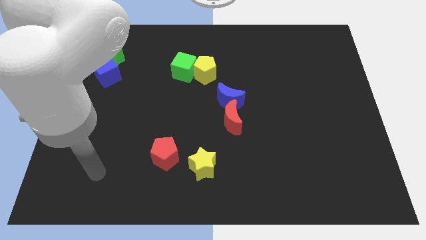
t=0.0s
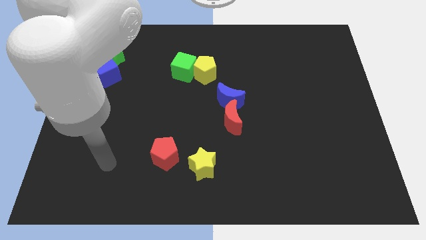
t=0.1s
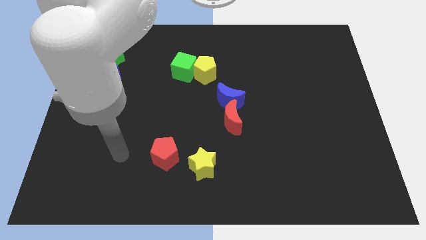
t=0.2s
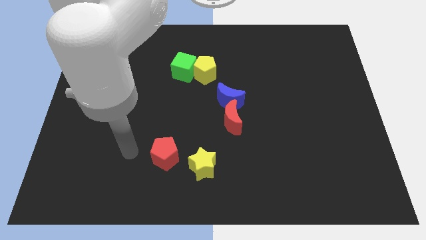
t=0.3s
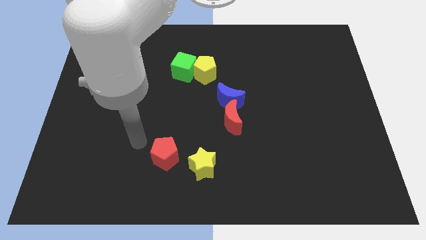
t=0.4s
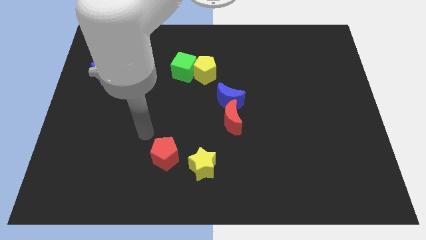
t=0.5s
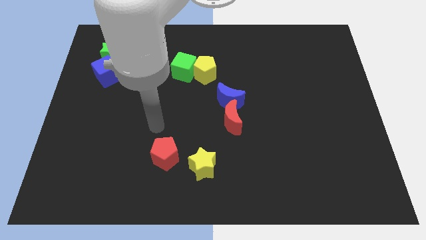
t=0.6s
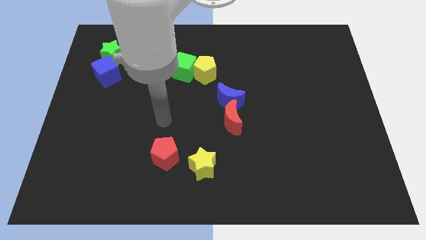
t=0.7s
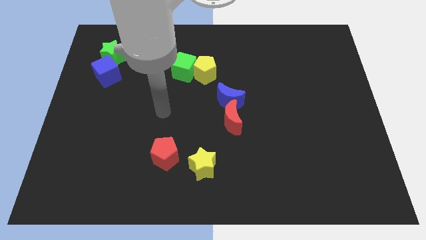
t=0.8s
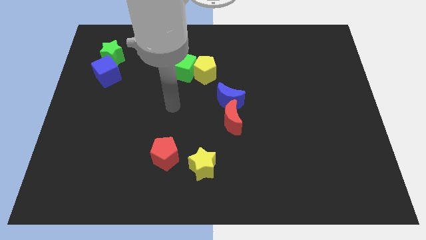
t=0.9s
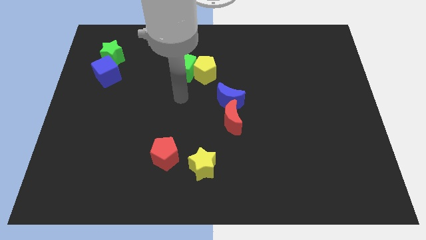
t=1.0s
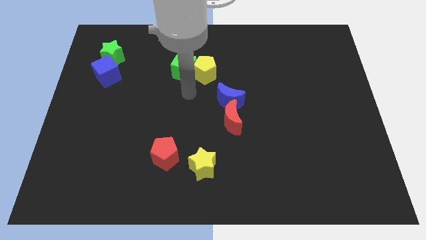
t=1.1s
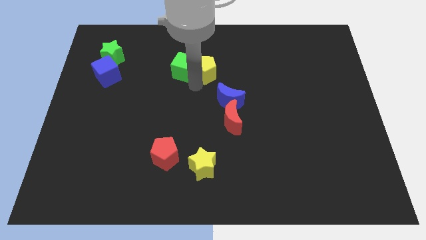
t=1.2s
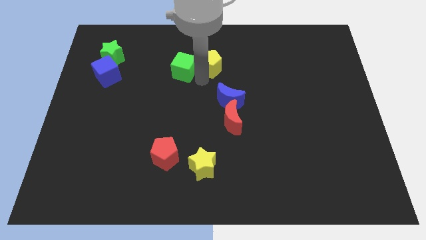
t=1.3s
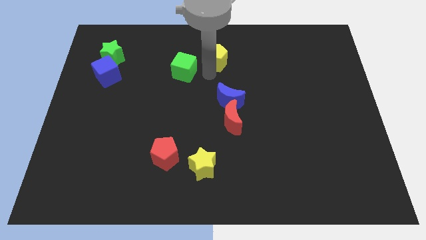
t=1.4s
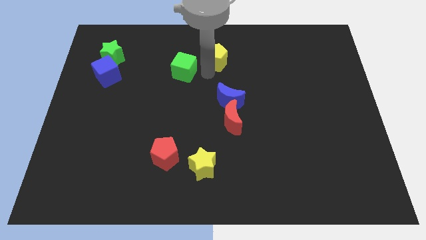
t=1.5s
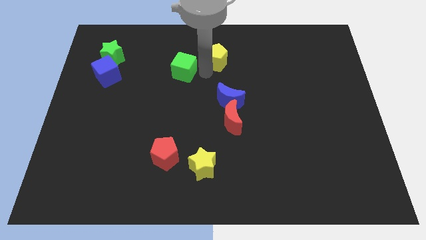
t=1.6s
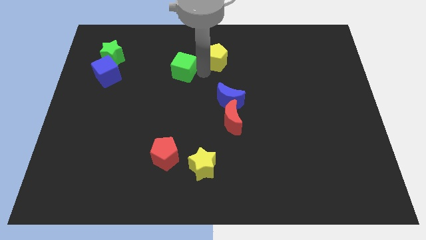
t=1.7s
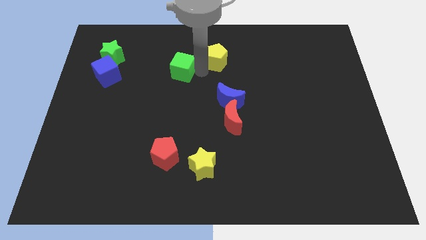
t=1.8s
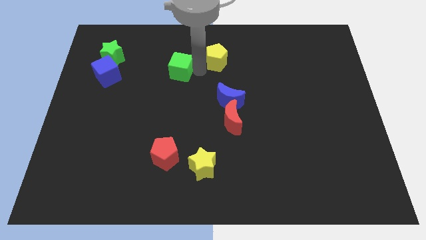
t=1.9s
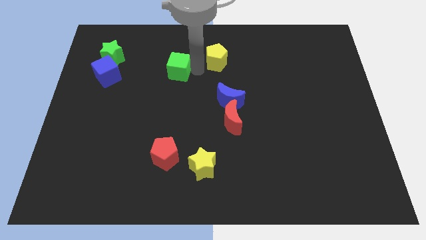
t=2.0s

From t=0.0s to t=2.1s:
pull the green cube apart from the yellow pentagon

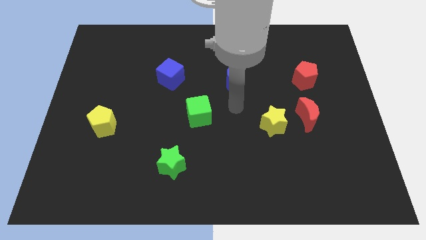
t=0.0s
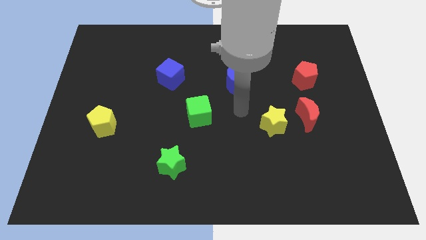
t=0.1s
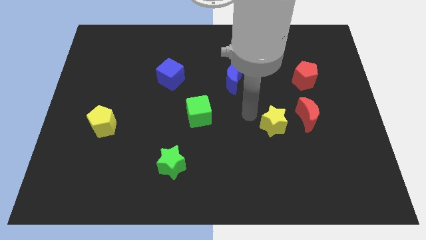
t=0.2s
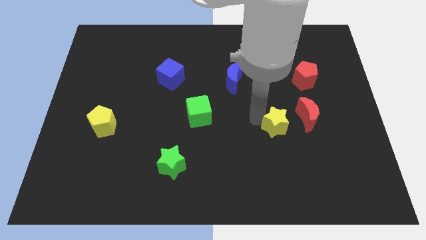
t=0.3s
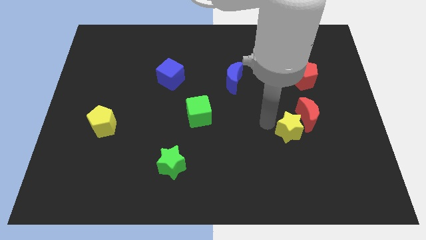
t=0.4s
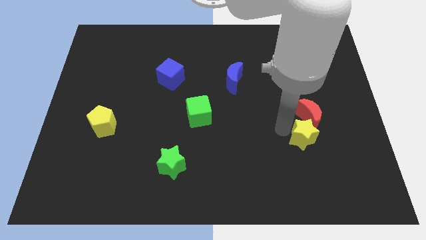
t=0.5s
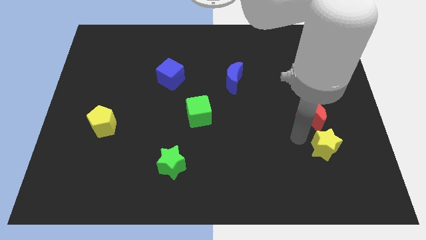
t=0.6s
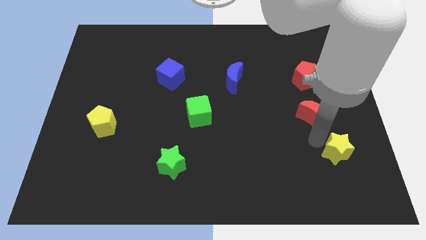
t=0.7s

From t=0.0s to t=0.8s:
pull the red moon apart from the yellow star

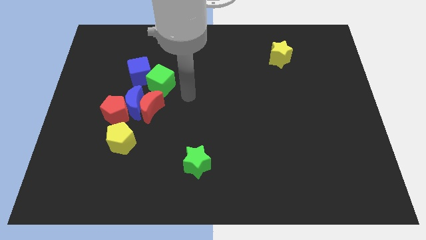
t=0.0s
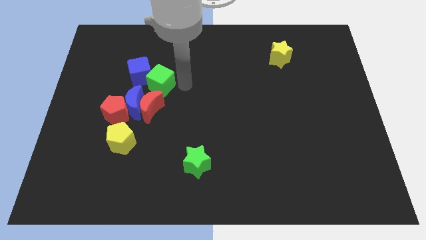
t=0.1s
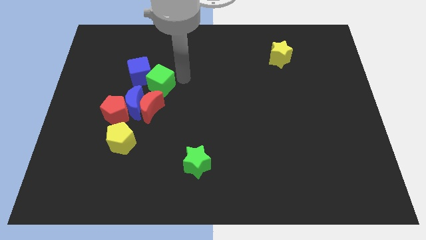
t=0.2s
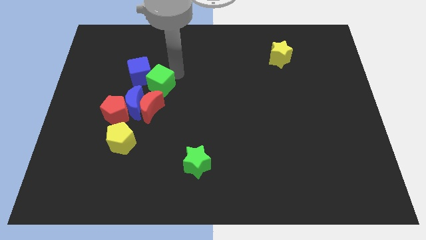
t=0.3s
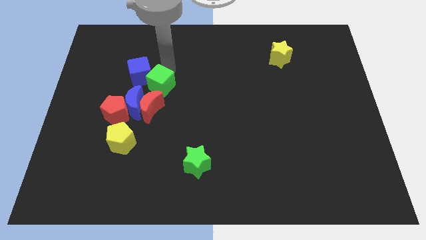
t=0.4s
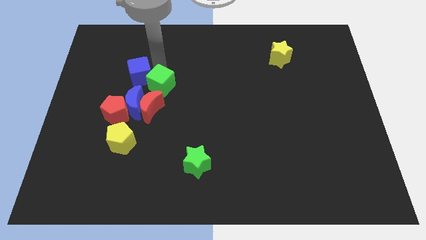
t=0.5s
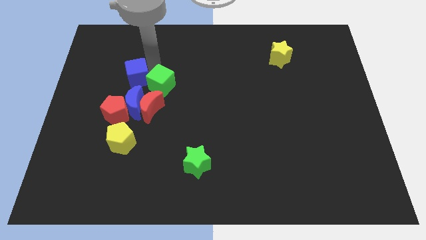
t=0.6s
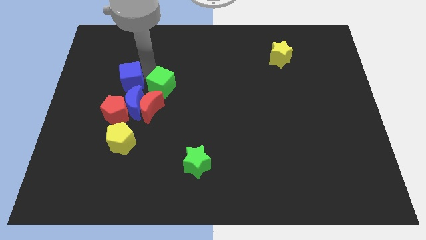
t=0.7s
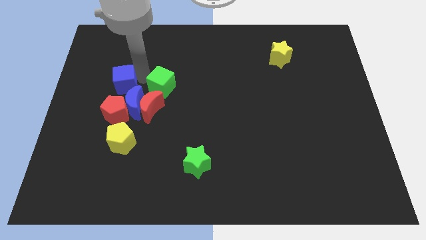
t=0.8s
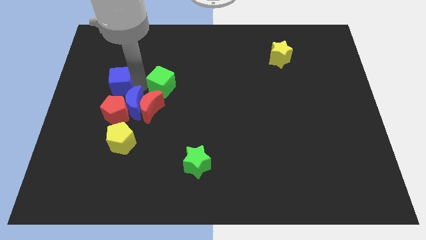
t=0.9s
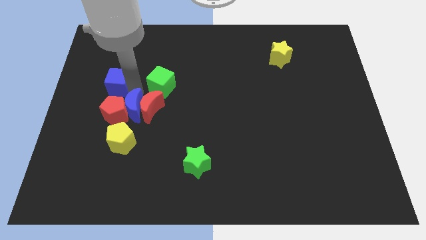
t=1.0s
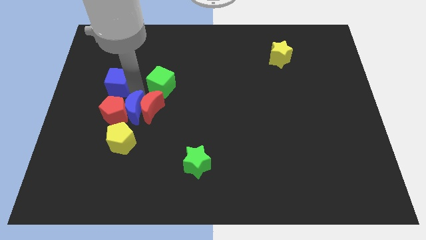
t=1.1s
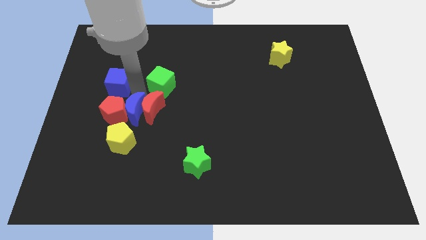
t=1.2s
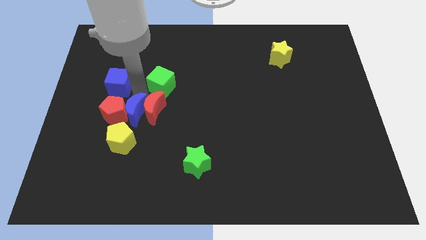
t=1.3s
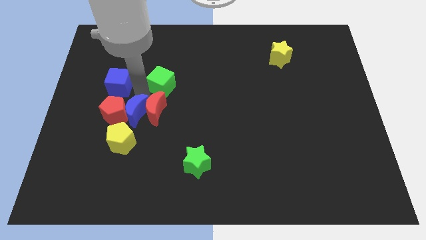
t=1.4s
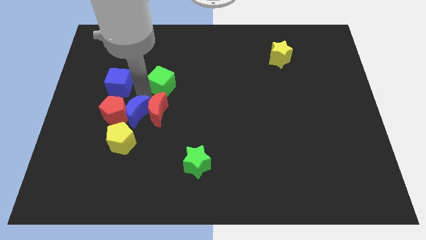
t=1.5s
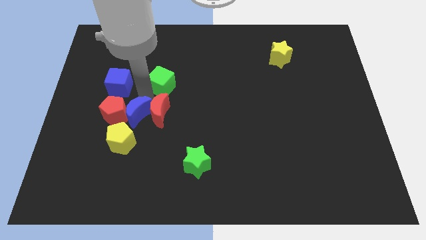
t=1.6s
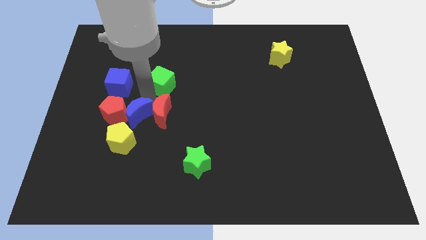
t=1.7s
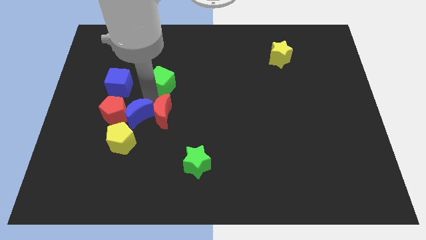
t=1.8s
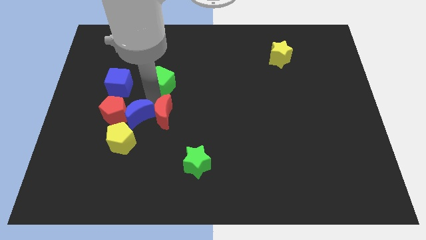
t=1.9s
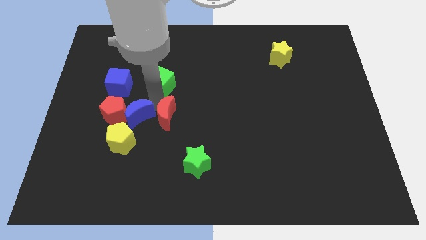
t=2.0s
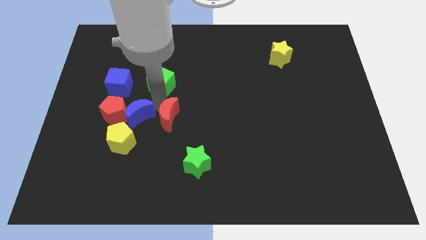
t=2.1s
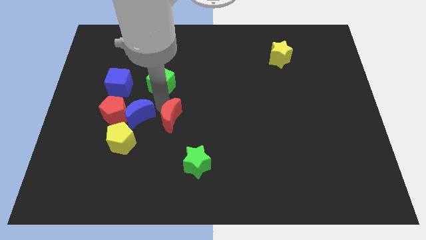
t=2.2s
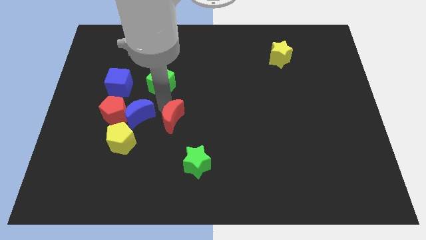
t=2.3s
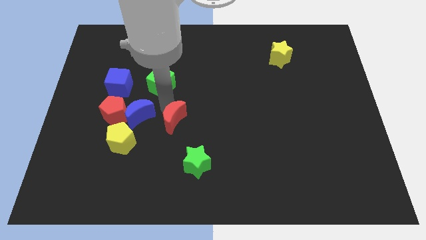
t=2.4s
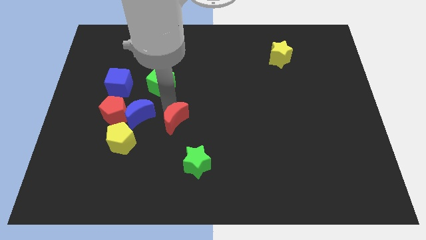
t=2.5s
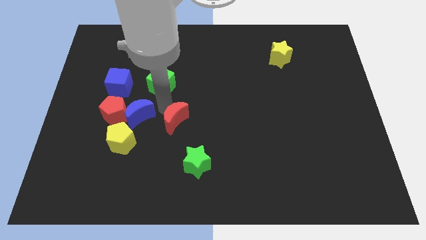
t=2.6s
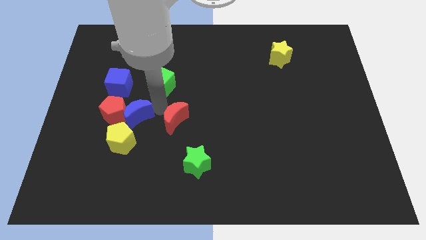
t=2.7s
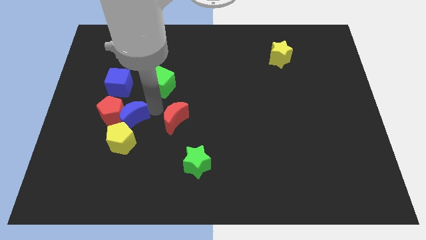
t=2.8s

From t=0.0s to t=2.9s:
pull the red moon apart from the group of blocks

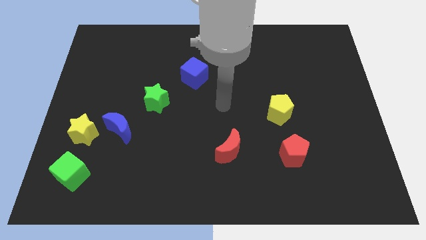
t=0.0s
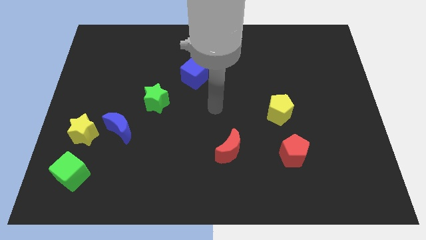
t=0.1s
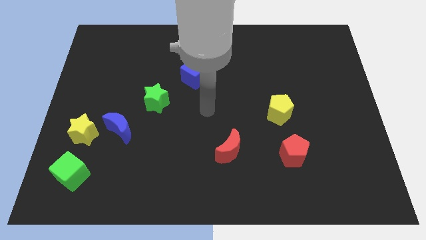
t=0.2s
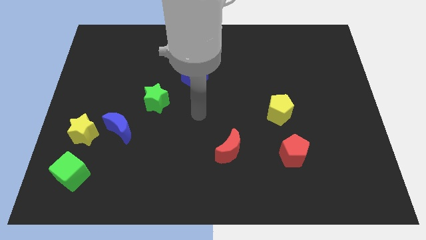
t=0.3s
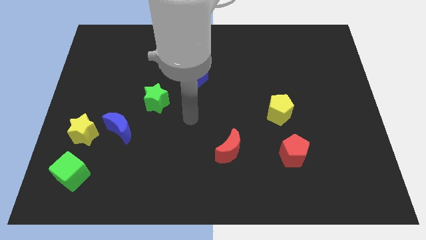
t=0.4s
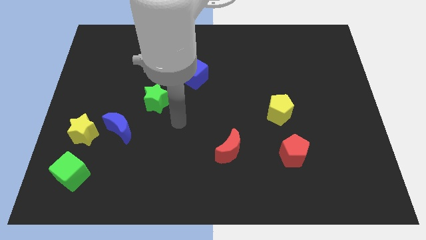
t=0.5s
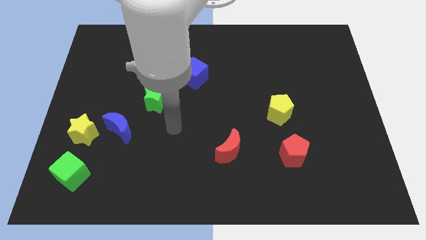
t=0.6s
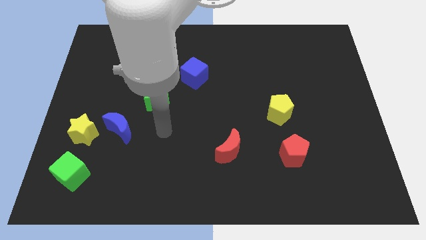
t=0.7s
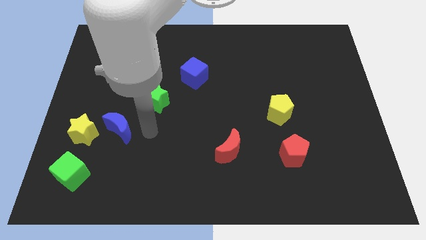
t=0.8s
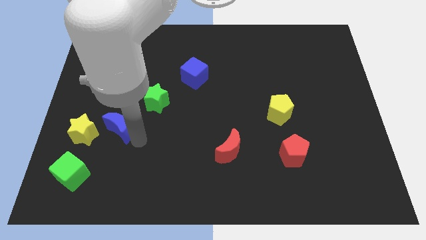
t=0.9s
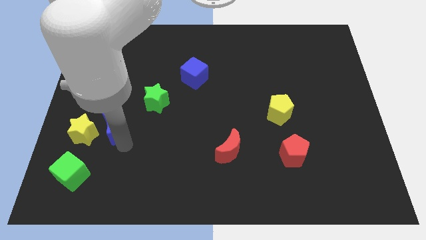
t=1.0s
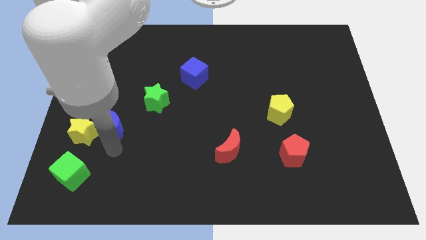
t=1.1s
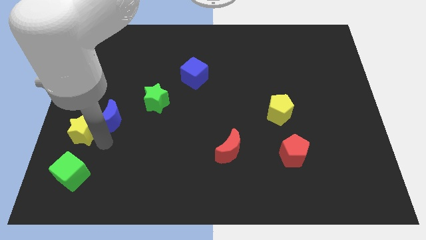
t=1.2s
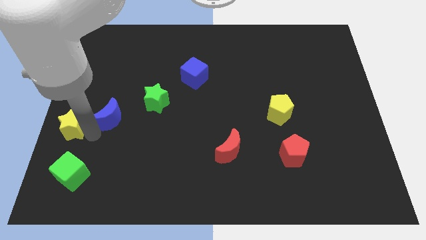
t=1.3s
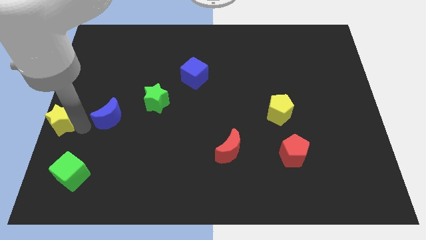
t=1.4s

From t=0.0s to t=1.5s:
pull the blue moon apart from the yellow star

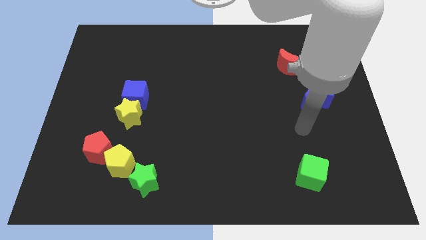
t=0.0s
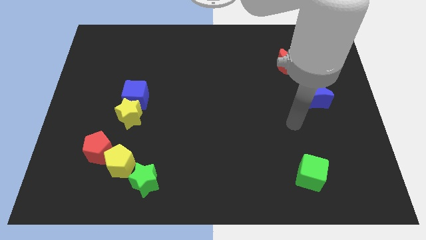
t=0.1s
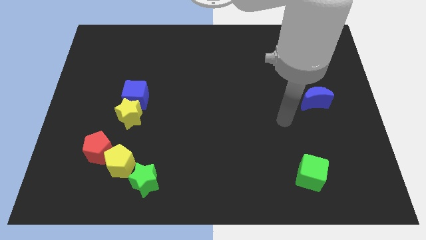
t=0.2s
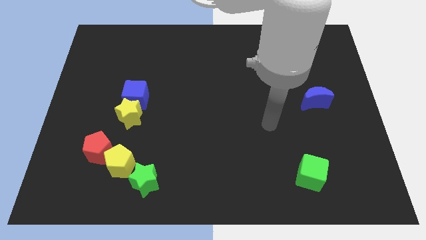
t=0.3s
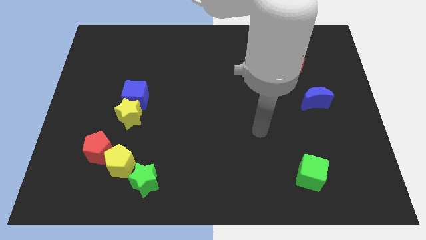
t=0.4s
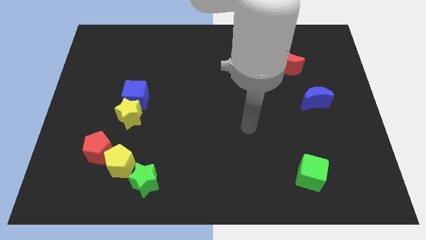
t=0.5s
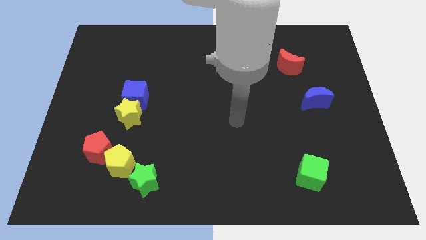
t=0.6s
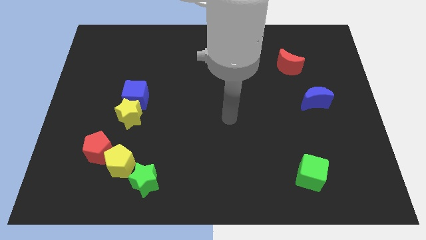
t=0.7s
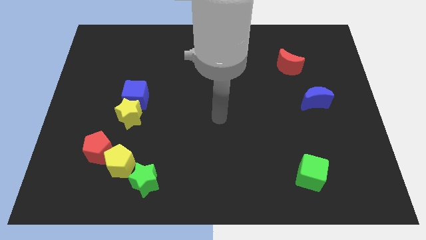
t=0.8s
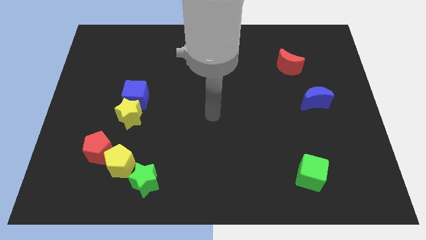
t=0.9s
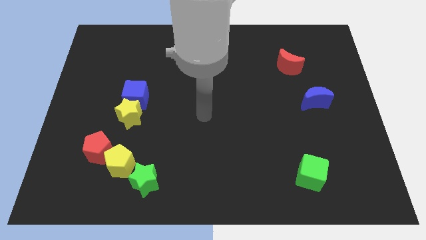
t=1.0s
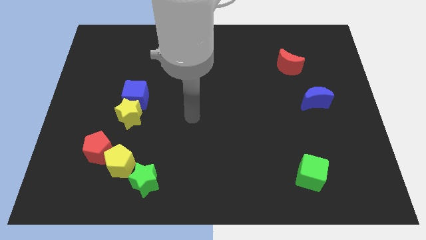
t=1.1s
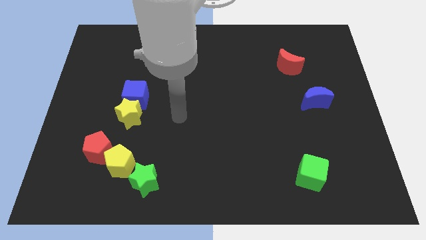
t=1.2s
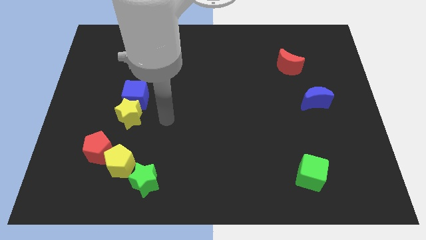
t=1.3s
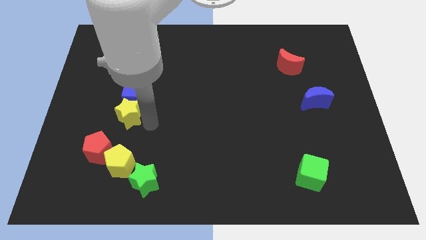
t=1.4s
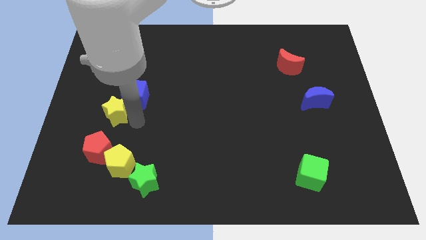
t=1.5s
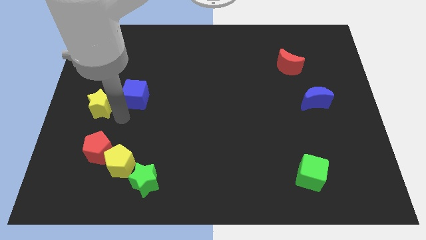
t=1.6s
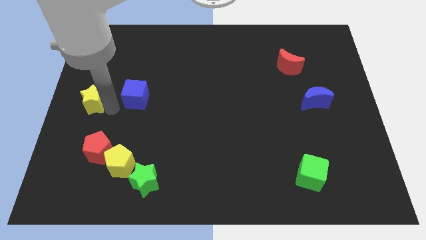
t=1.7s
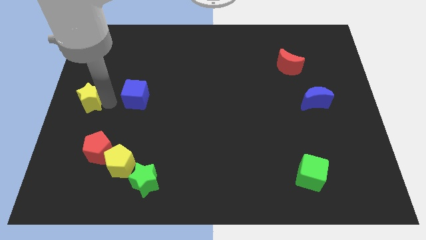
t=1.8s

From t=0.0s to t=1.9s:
pull the blue cube apart from the yellow star
